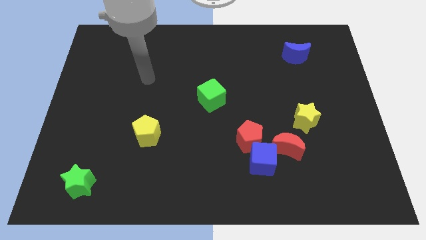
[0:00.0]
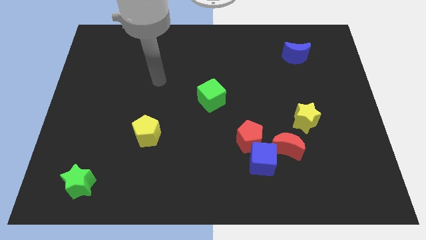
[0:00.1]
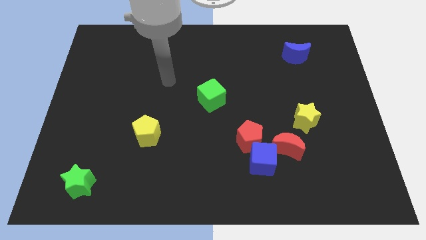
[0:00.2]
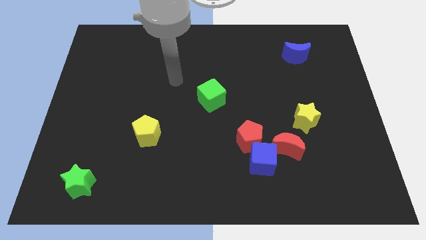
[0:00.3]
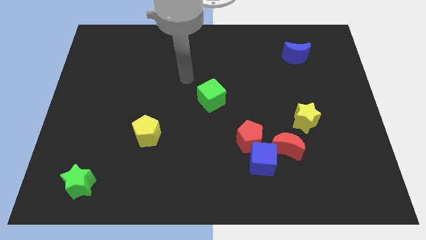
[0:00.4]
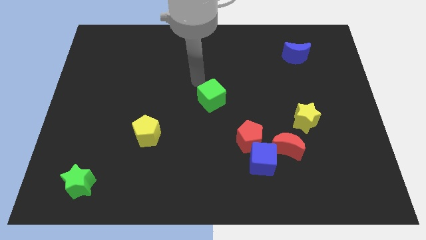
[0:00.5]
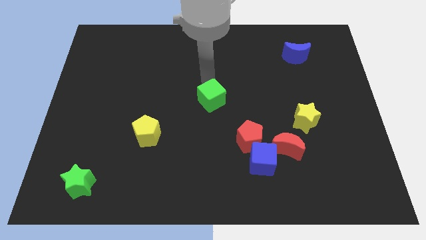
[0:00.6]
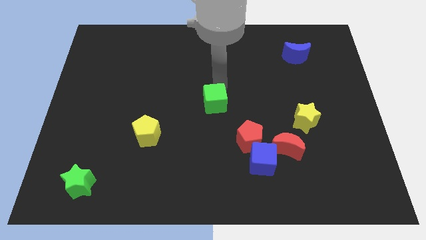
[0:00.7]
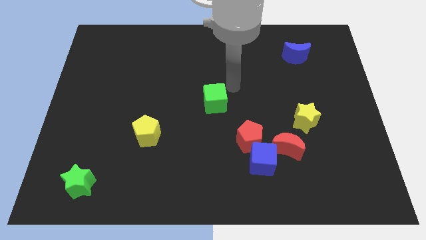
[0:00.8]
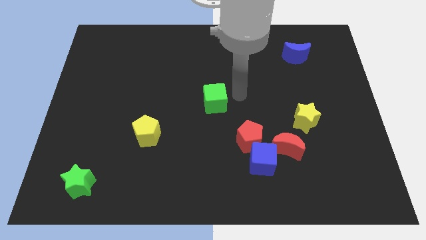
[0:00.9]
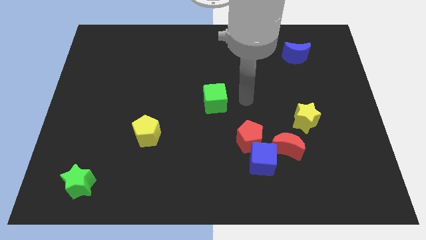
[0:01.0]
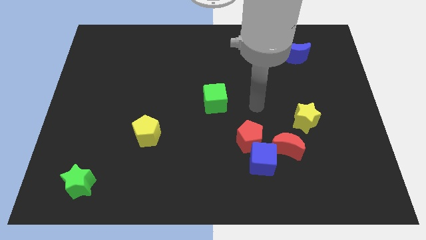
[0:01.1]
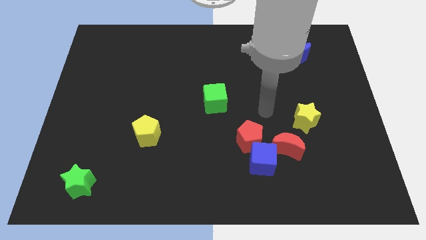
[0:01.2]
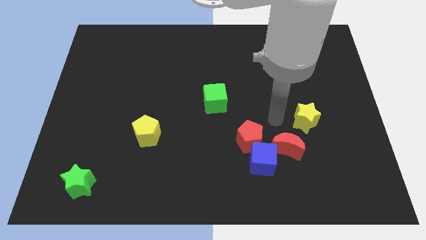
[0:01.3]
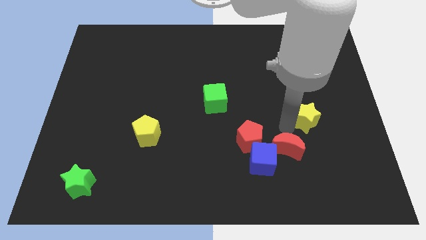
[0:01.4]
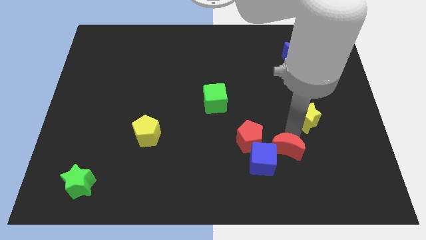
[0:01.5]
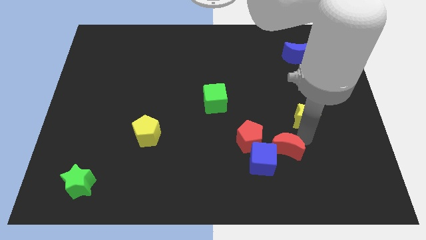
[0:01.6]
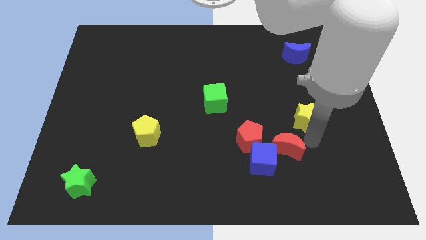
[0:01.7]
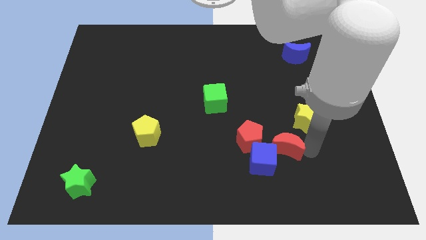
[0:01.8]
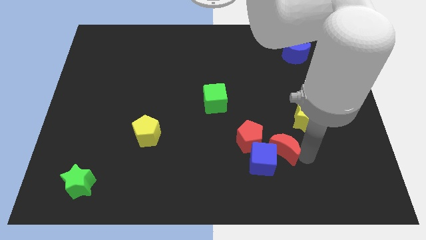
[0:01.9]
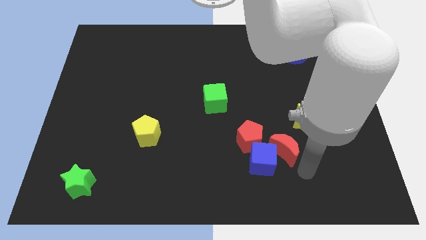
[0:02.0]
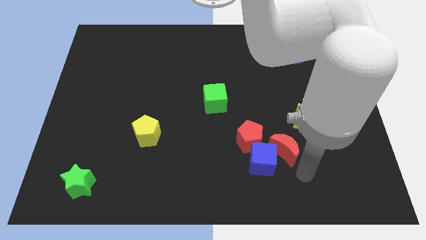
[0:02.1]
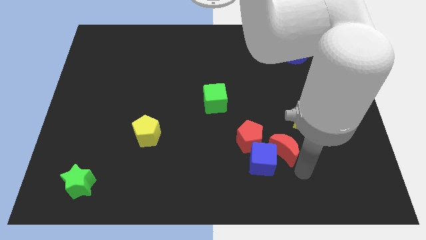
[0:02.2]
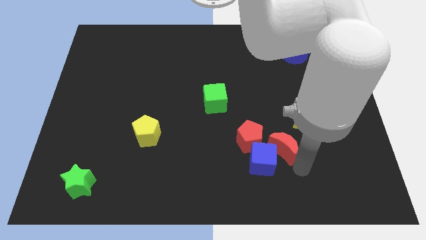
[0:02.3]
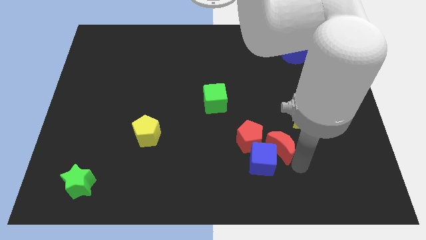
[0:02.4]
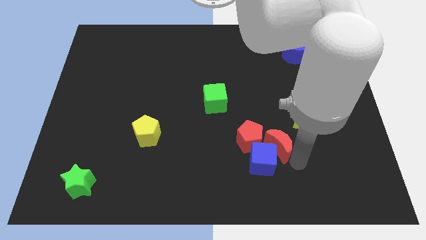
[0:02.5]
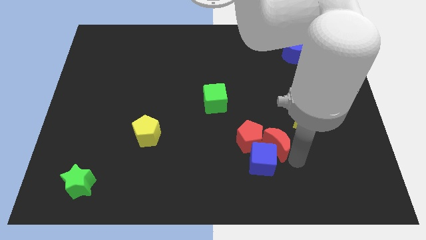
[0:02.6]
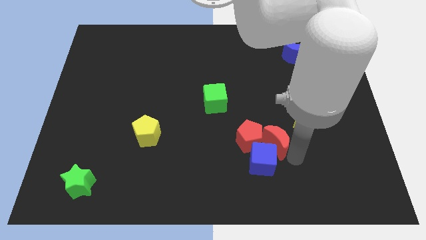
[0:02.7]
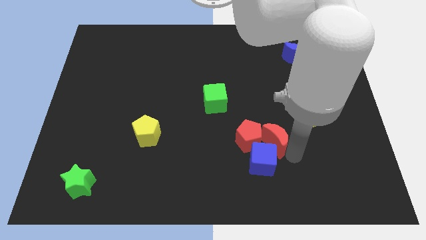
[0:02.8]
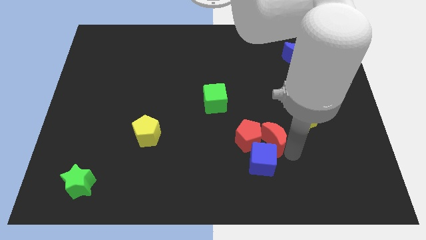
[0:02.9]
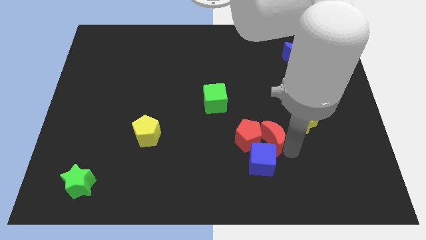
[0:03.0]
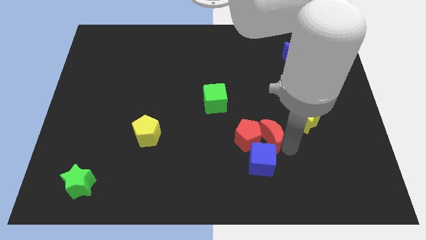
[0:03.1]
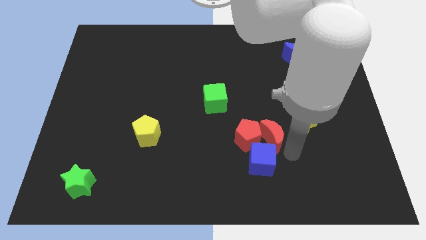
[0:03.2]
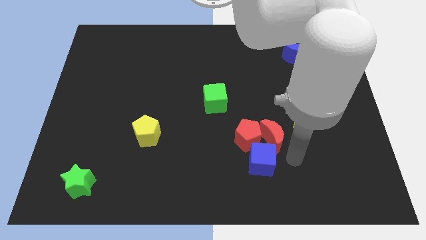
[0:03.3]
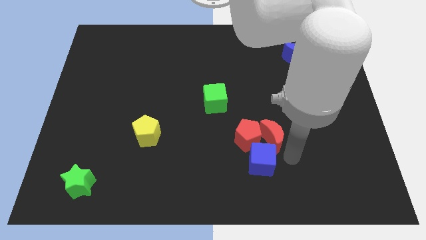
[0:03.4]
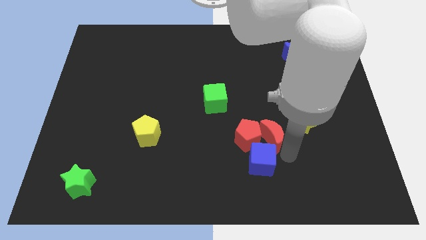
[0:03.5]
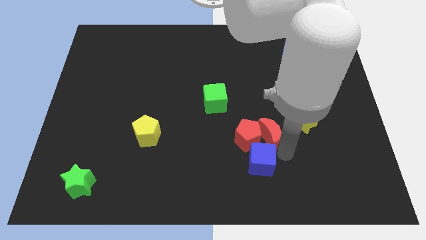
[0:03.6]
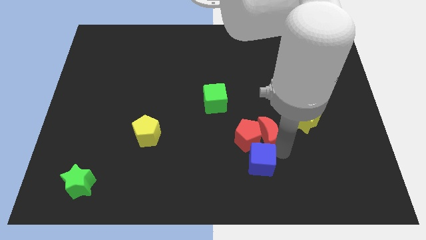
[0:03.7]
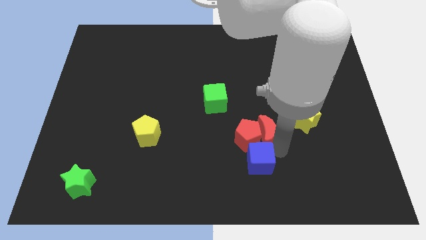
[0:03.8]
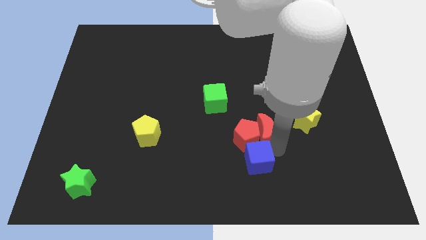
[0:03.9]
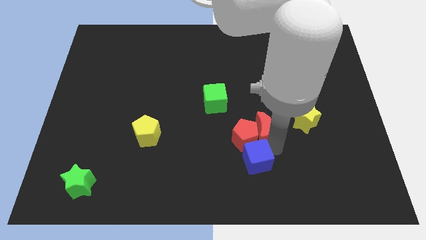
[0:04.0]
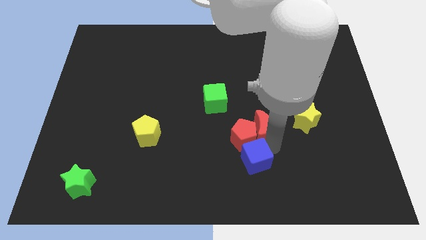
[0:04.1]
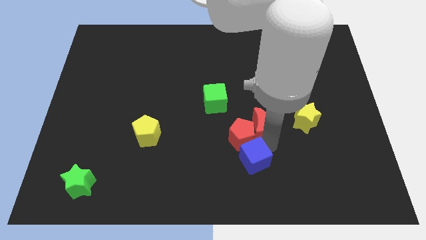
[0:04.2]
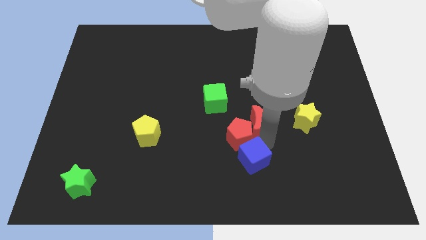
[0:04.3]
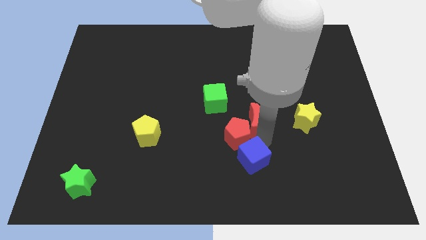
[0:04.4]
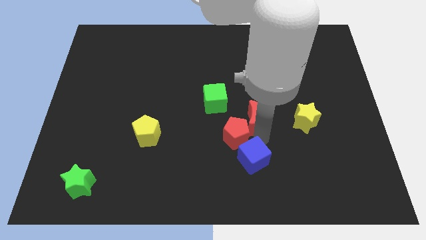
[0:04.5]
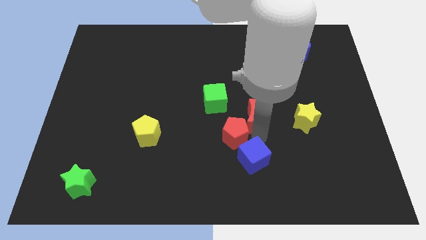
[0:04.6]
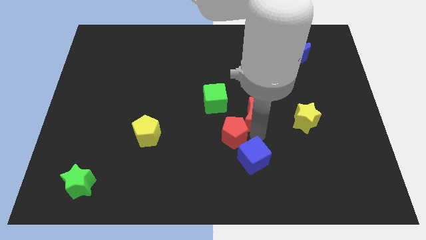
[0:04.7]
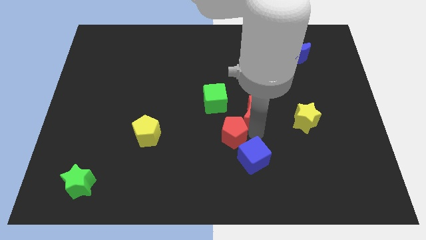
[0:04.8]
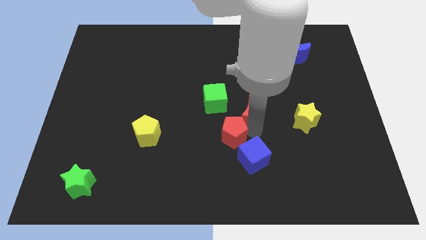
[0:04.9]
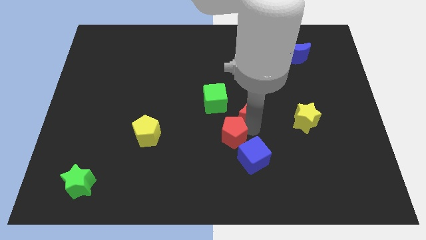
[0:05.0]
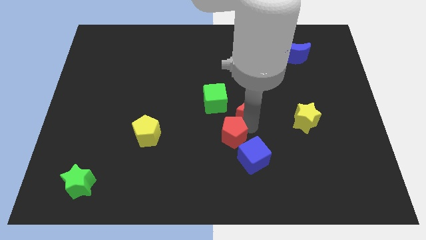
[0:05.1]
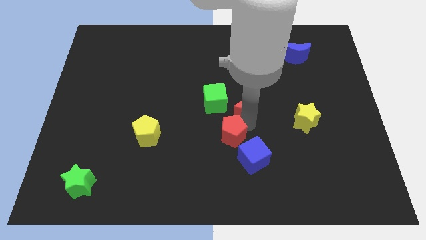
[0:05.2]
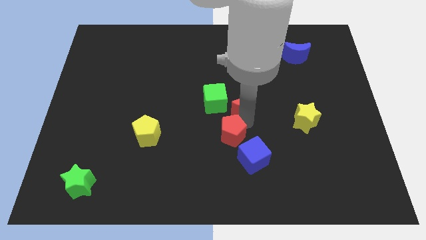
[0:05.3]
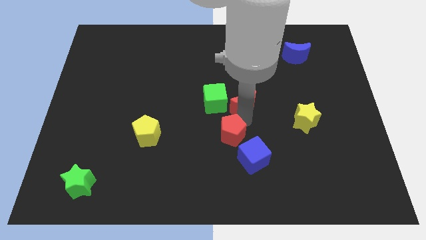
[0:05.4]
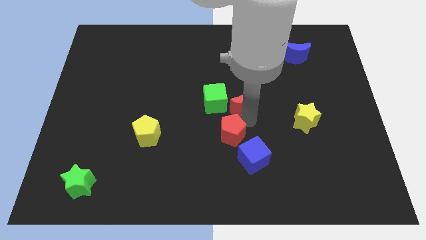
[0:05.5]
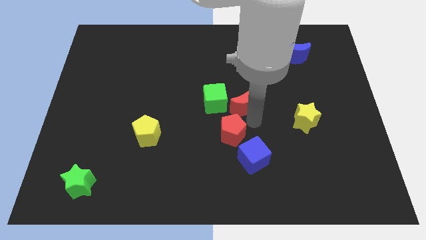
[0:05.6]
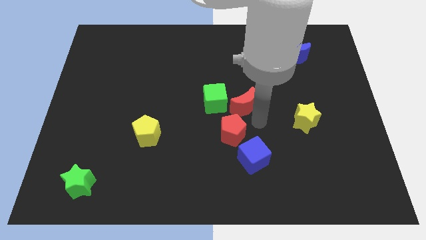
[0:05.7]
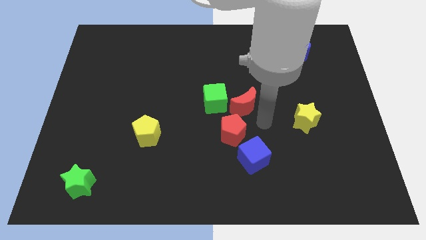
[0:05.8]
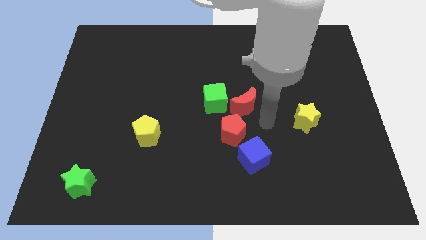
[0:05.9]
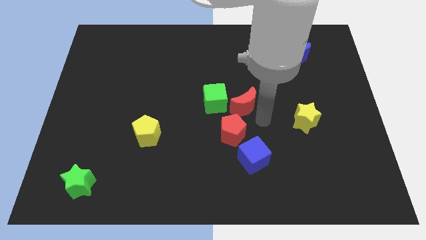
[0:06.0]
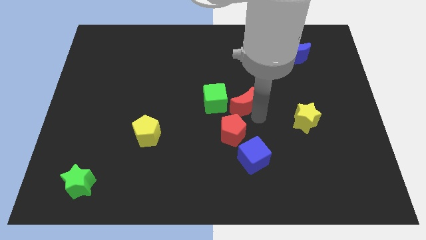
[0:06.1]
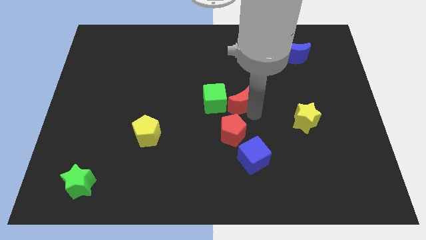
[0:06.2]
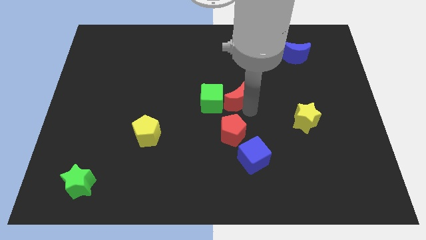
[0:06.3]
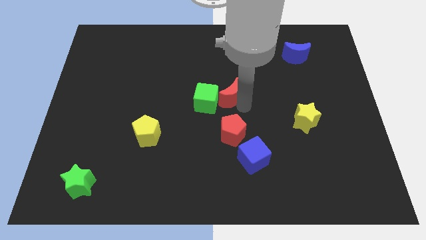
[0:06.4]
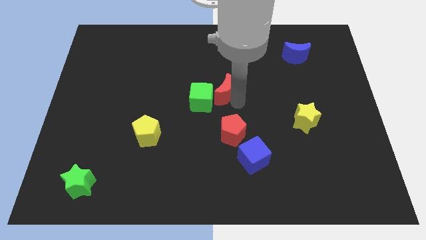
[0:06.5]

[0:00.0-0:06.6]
move the red moon diagonally upwards and to the left

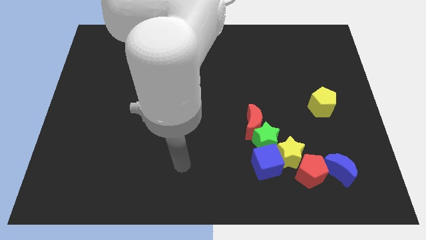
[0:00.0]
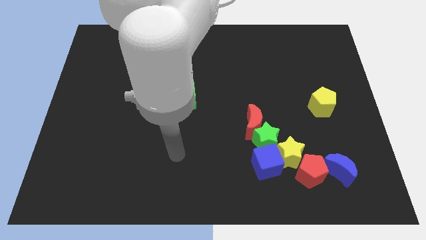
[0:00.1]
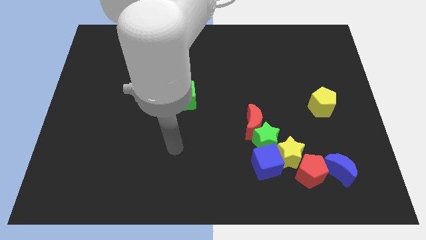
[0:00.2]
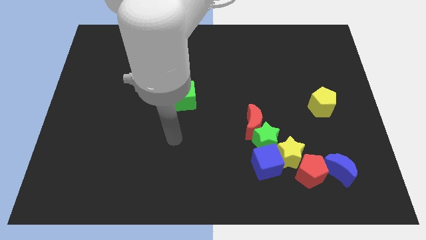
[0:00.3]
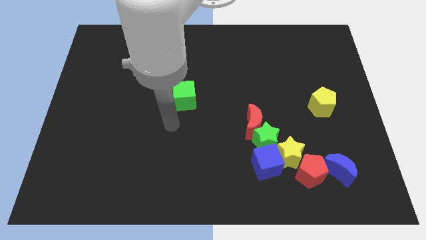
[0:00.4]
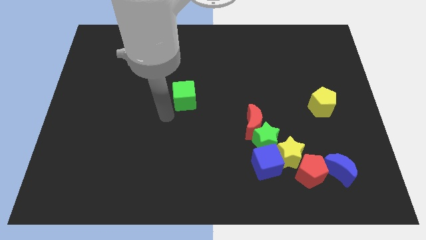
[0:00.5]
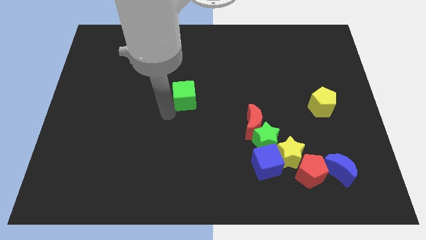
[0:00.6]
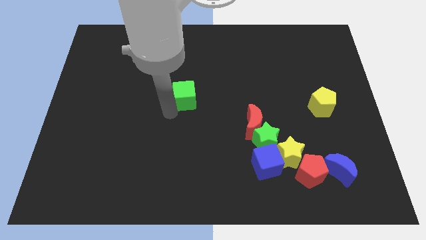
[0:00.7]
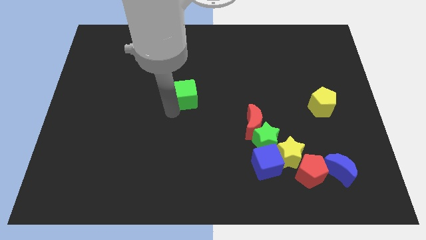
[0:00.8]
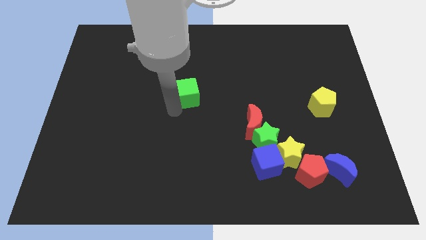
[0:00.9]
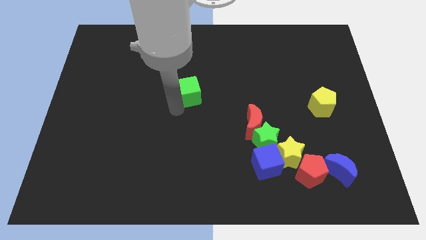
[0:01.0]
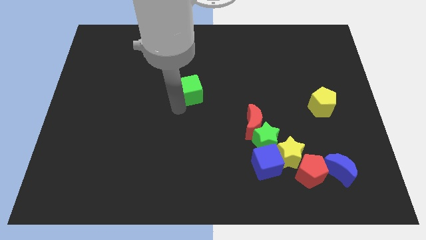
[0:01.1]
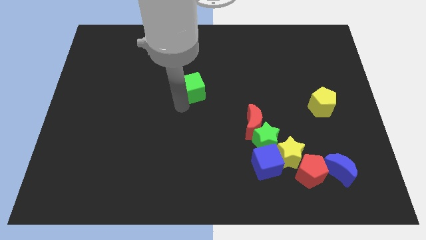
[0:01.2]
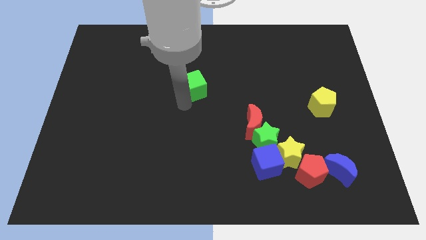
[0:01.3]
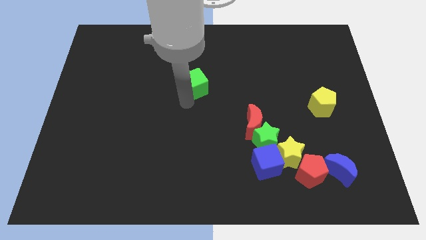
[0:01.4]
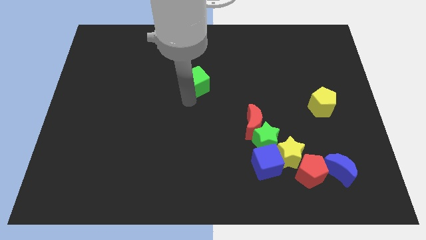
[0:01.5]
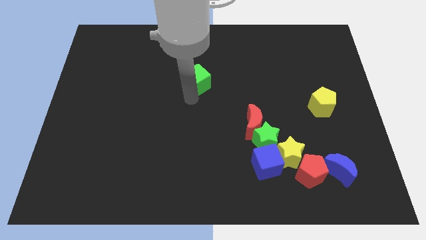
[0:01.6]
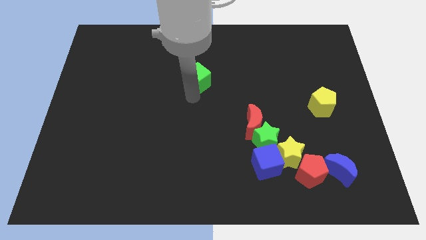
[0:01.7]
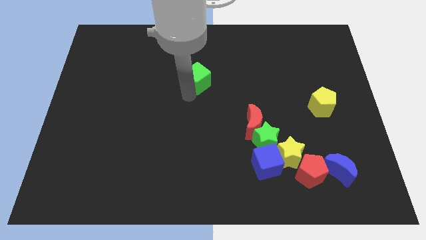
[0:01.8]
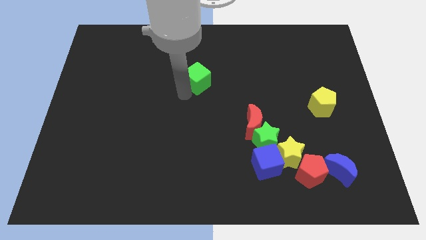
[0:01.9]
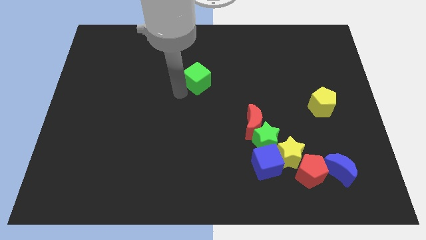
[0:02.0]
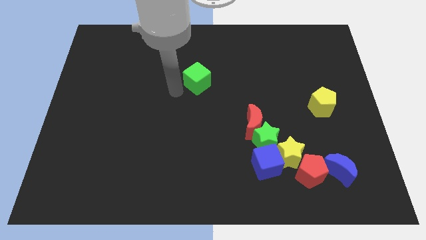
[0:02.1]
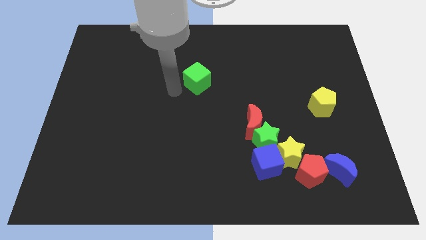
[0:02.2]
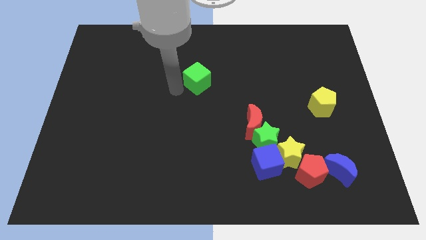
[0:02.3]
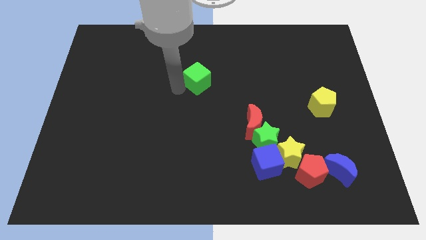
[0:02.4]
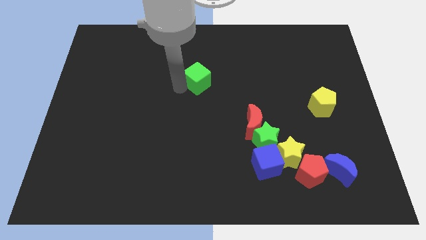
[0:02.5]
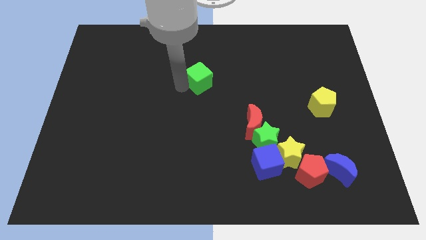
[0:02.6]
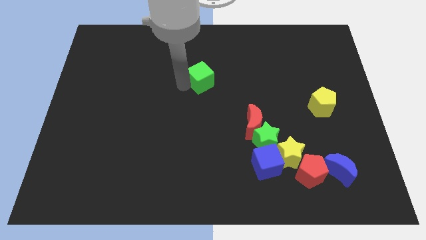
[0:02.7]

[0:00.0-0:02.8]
push the green cube a little bit upwards and to the right
